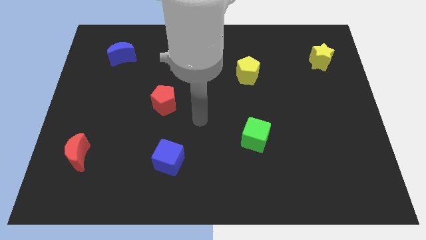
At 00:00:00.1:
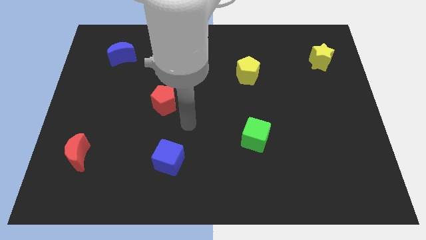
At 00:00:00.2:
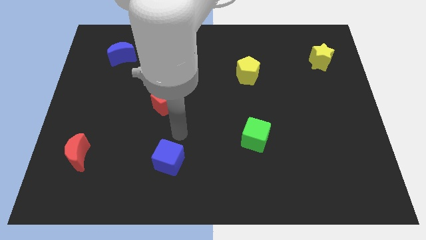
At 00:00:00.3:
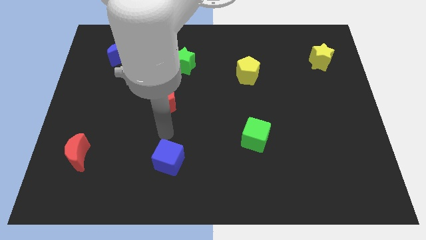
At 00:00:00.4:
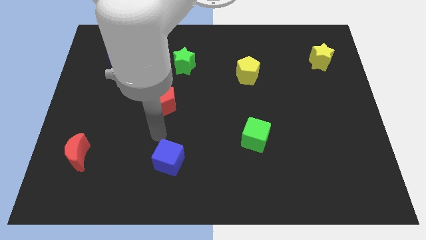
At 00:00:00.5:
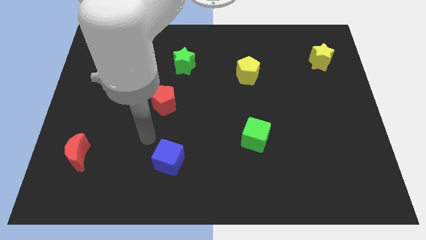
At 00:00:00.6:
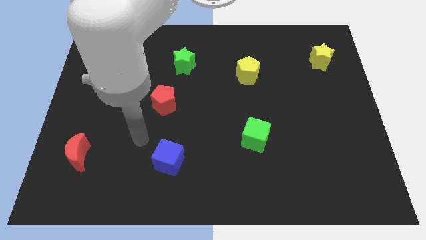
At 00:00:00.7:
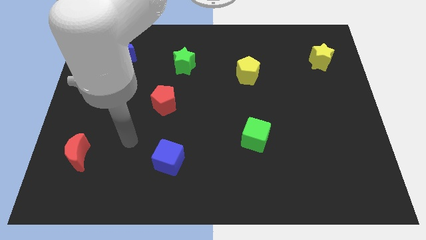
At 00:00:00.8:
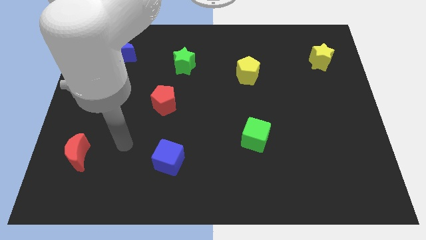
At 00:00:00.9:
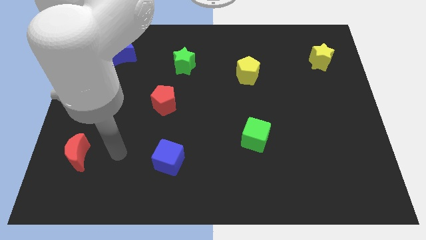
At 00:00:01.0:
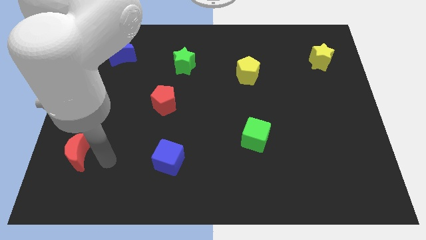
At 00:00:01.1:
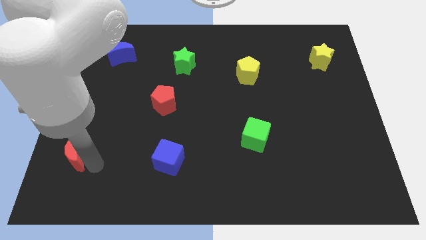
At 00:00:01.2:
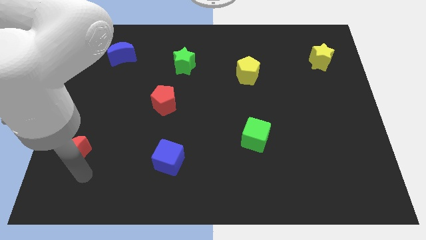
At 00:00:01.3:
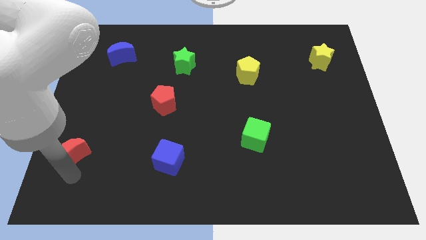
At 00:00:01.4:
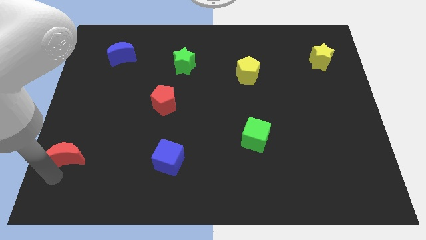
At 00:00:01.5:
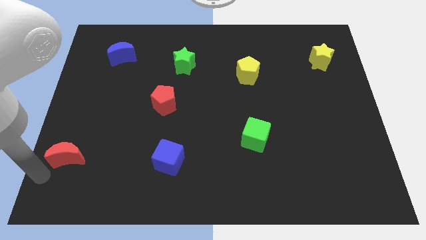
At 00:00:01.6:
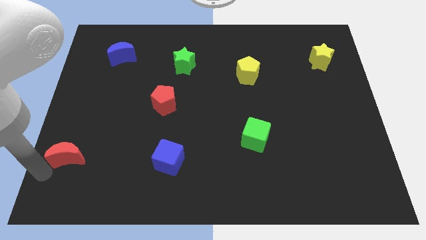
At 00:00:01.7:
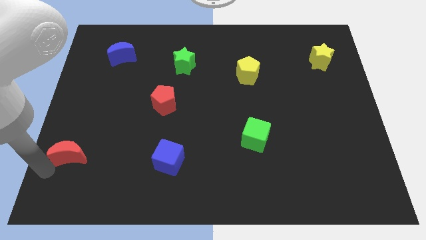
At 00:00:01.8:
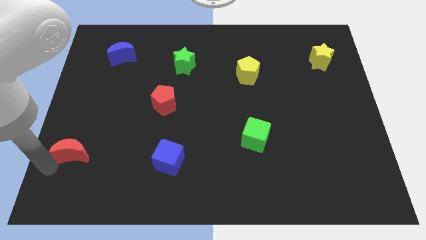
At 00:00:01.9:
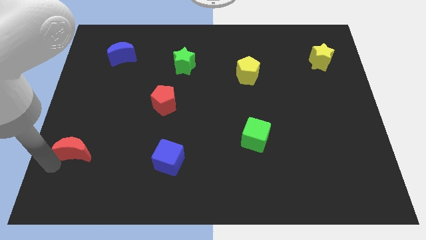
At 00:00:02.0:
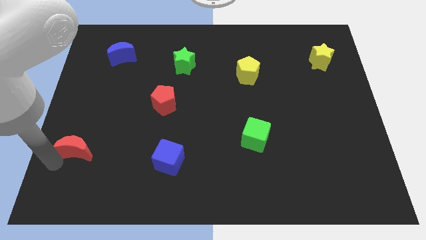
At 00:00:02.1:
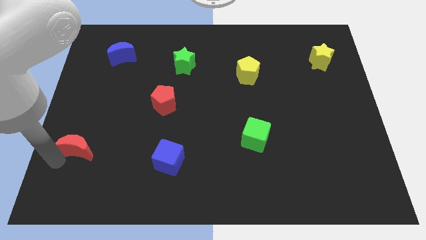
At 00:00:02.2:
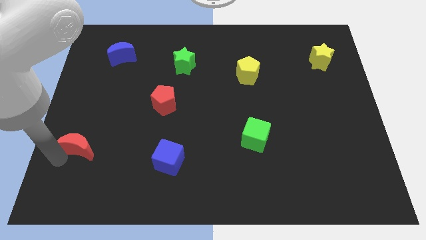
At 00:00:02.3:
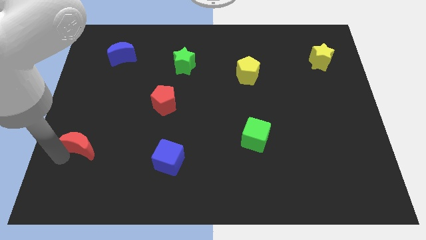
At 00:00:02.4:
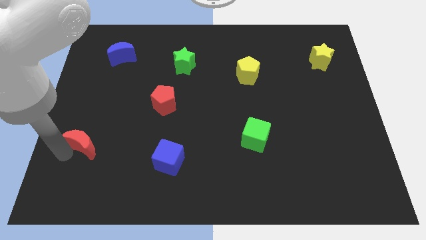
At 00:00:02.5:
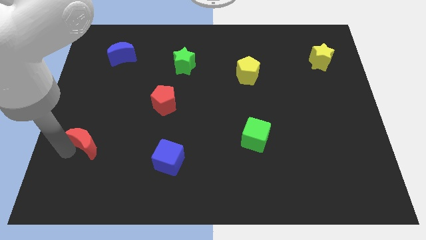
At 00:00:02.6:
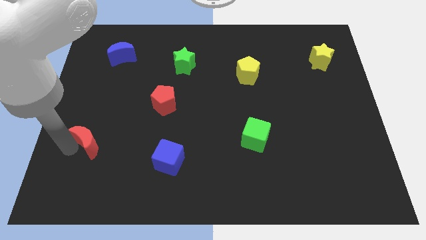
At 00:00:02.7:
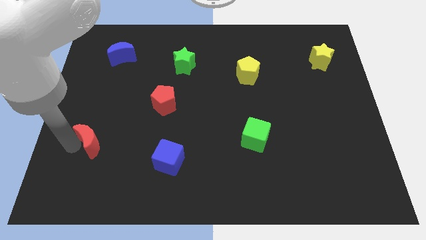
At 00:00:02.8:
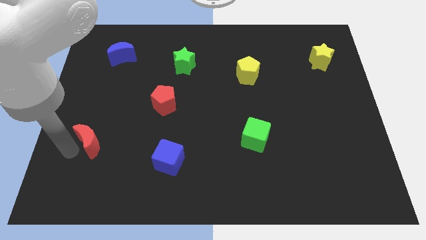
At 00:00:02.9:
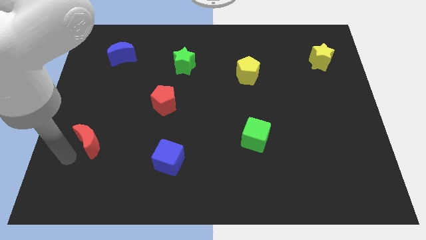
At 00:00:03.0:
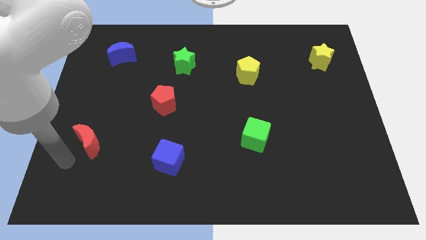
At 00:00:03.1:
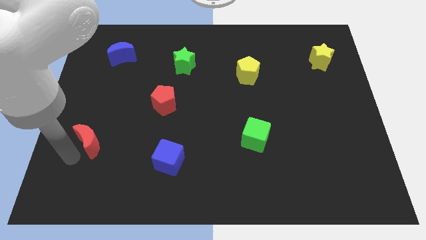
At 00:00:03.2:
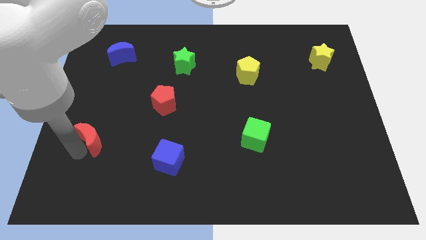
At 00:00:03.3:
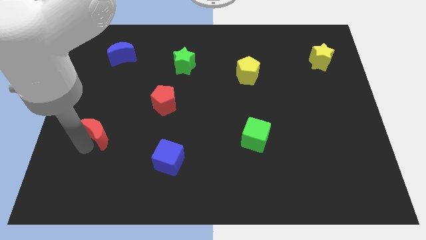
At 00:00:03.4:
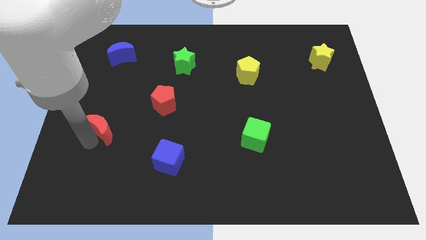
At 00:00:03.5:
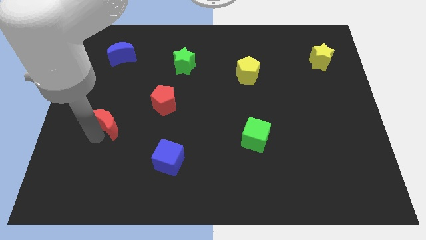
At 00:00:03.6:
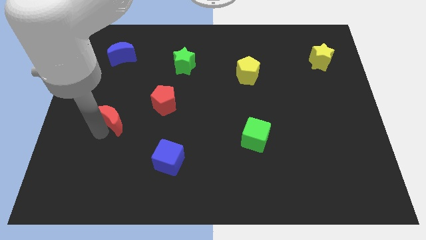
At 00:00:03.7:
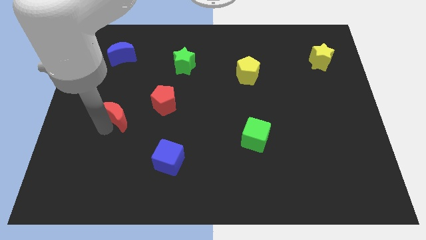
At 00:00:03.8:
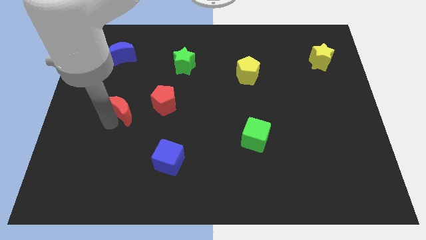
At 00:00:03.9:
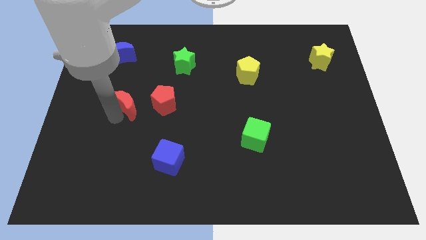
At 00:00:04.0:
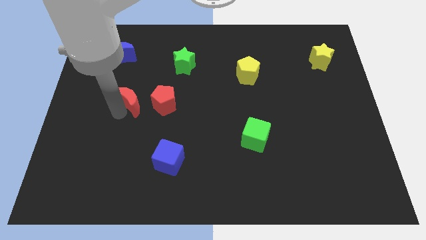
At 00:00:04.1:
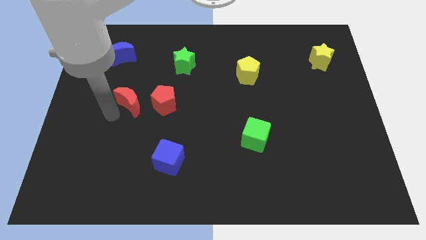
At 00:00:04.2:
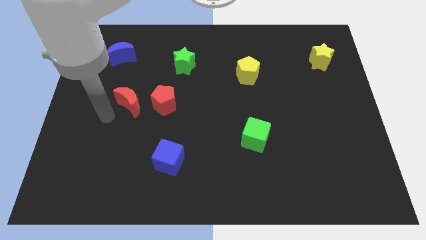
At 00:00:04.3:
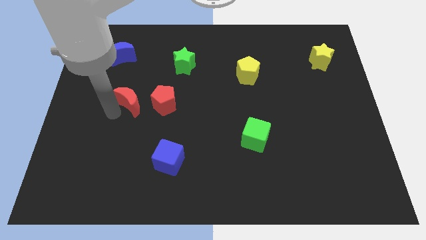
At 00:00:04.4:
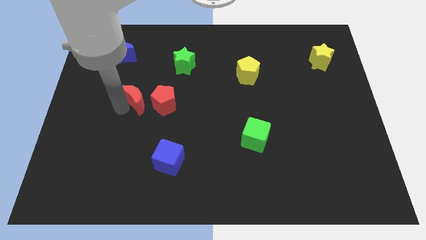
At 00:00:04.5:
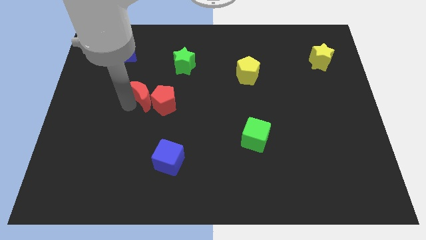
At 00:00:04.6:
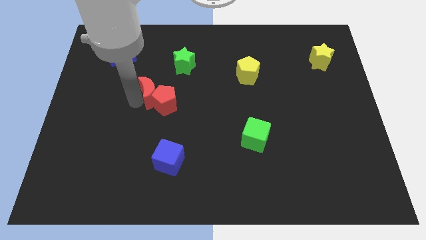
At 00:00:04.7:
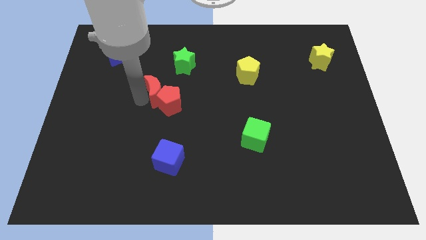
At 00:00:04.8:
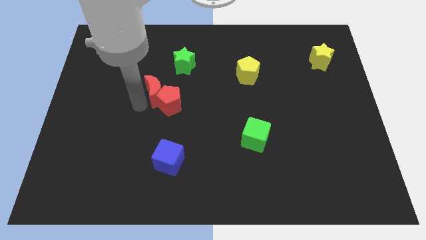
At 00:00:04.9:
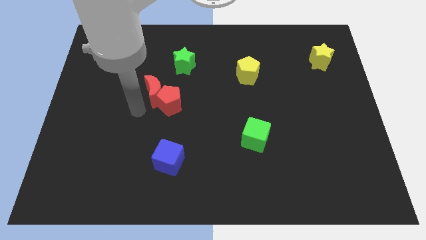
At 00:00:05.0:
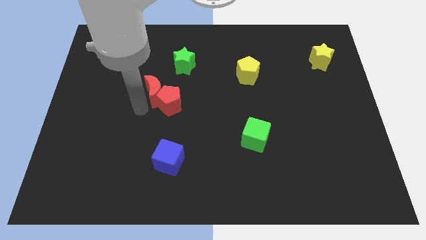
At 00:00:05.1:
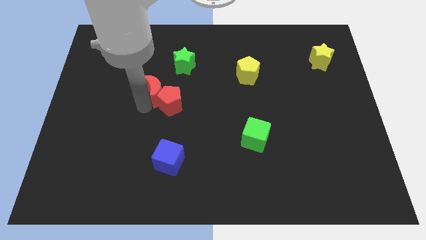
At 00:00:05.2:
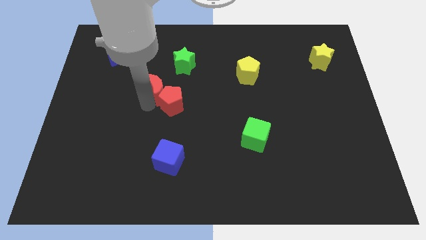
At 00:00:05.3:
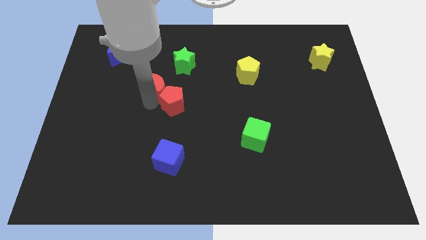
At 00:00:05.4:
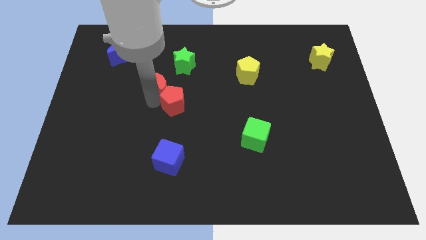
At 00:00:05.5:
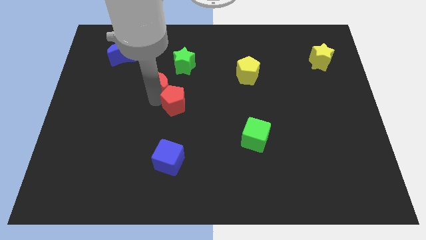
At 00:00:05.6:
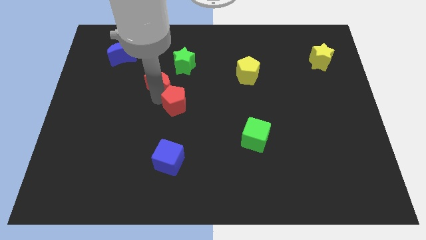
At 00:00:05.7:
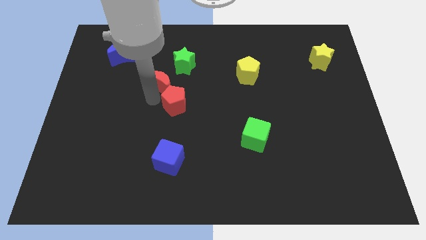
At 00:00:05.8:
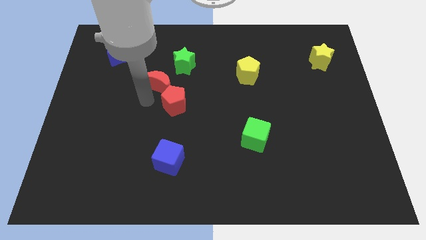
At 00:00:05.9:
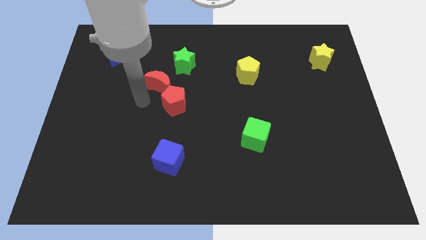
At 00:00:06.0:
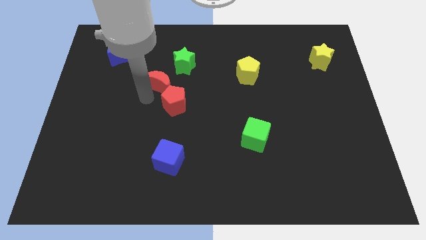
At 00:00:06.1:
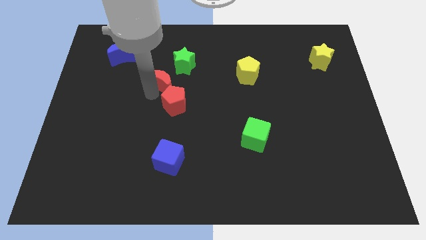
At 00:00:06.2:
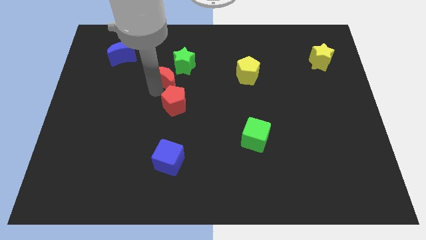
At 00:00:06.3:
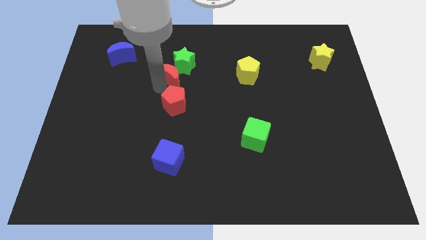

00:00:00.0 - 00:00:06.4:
push the red moon to the green star
